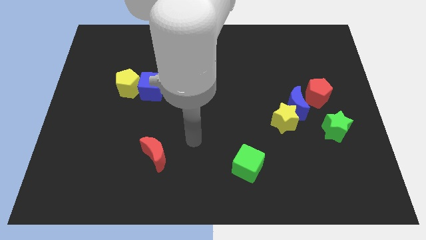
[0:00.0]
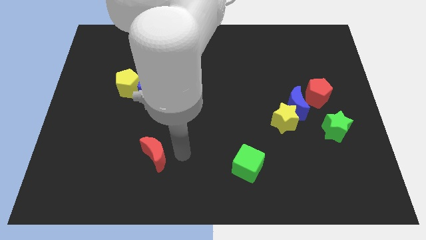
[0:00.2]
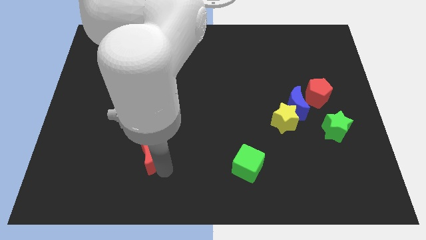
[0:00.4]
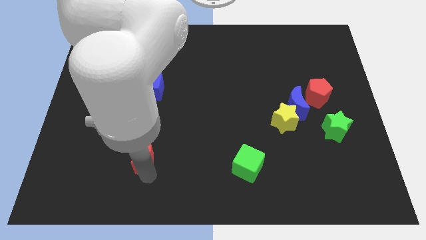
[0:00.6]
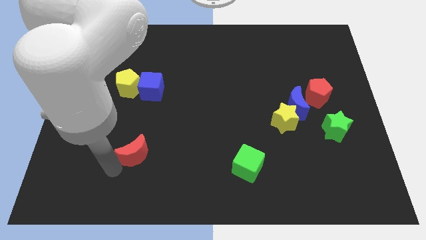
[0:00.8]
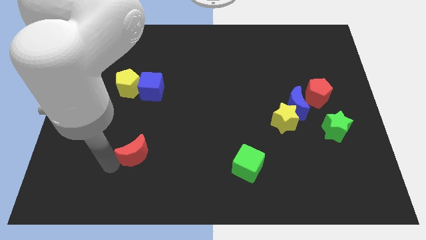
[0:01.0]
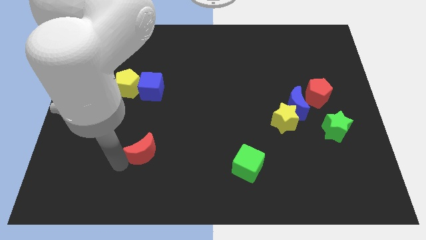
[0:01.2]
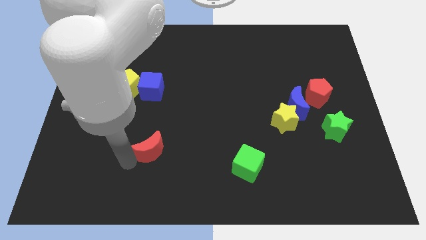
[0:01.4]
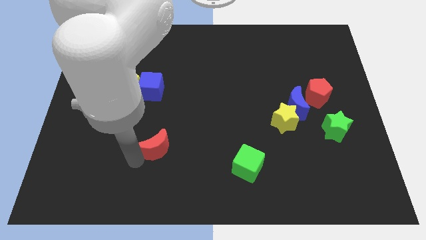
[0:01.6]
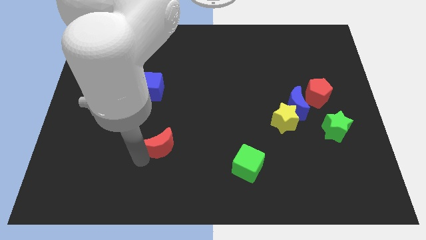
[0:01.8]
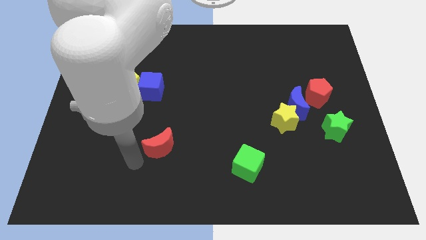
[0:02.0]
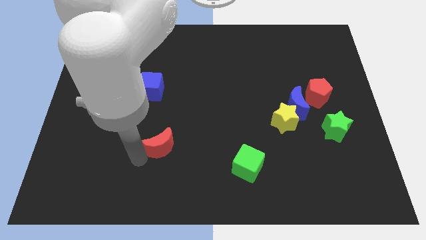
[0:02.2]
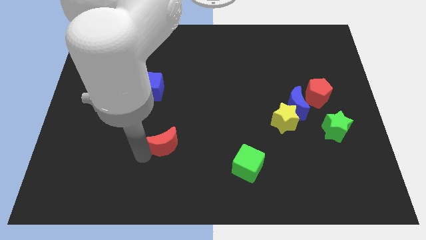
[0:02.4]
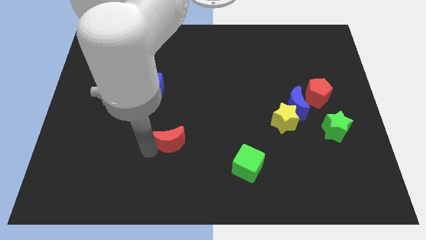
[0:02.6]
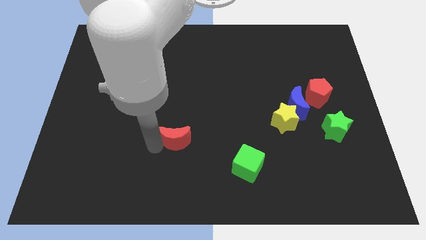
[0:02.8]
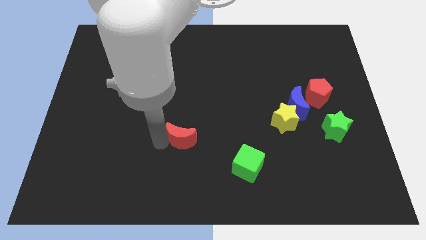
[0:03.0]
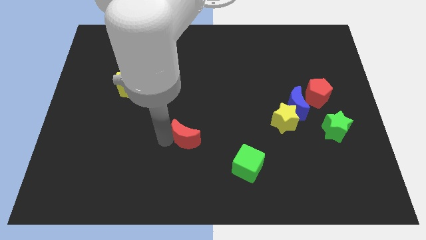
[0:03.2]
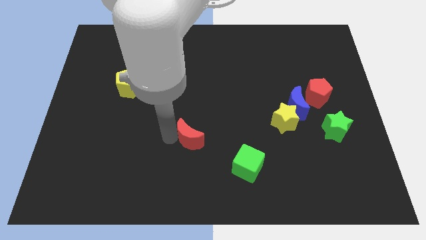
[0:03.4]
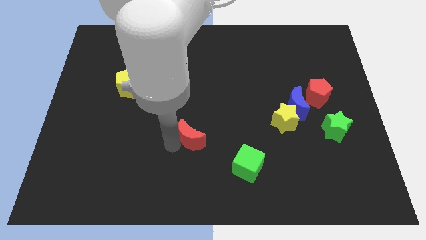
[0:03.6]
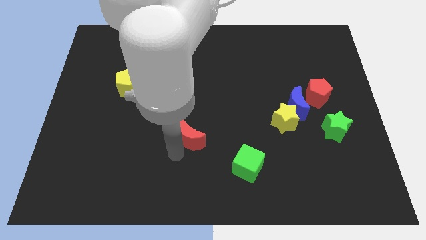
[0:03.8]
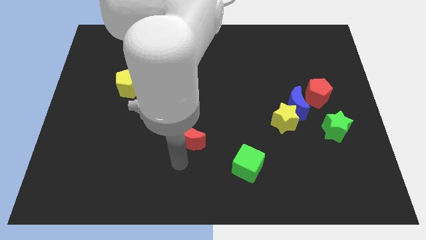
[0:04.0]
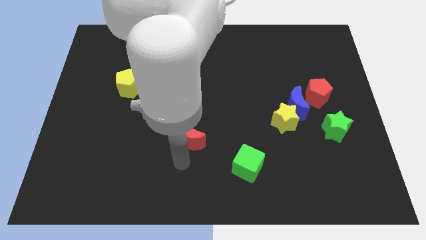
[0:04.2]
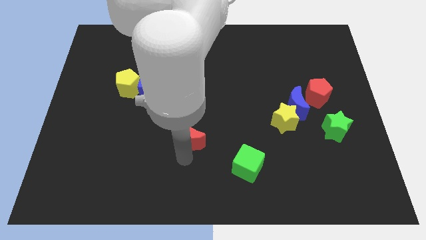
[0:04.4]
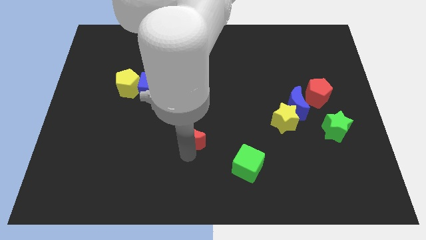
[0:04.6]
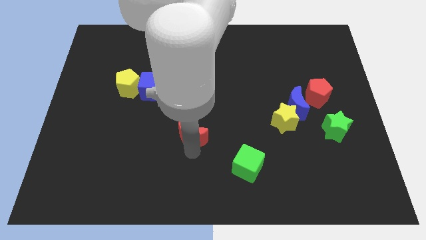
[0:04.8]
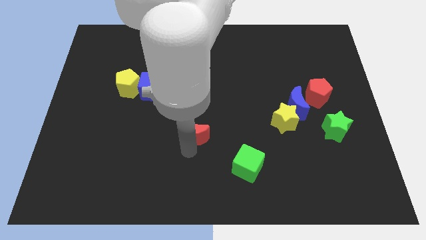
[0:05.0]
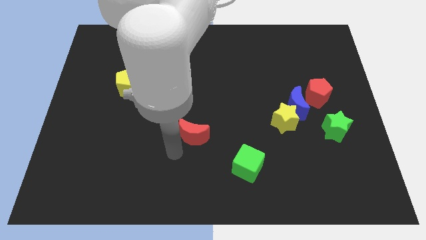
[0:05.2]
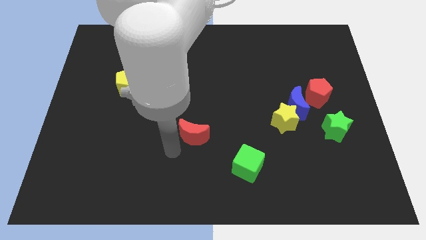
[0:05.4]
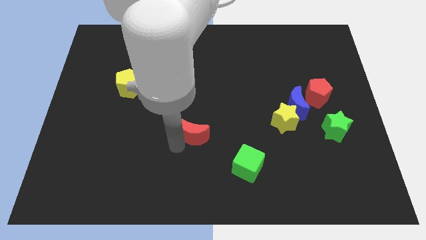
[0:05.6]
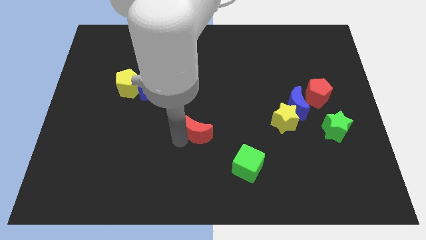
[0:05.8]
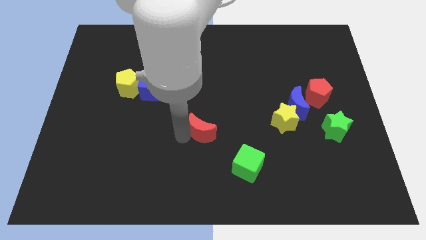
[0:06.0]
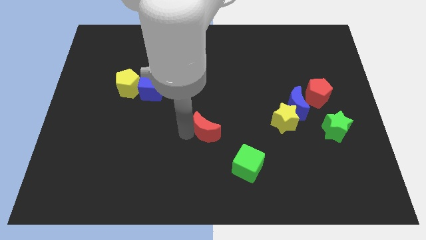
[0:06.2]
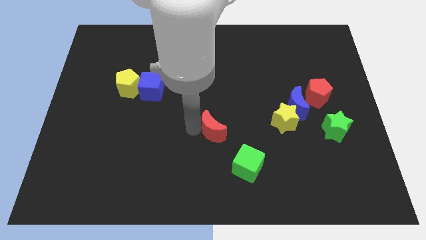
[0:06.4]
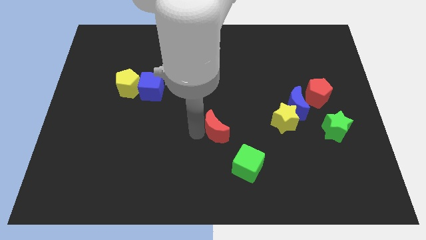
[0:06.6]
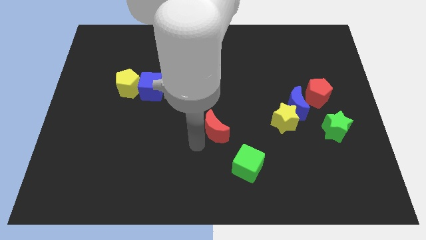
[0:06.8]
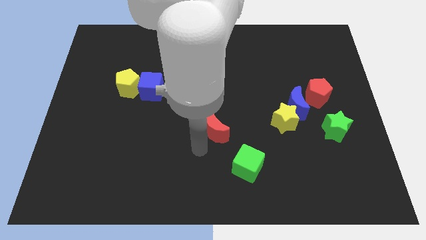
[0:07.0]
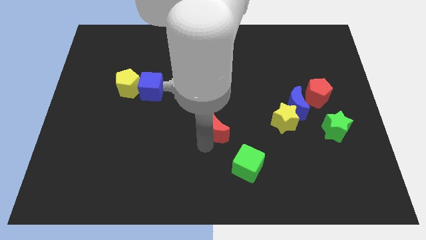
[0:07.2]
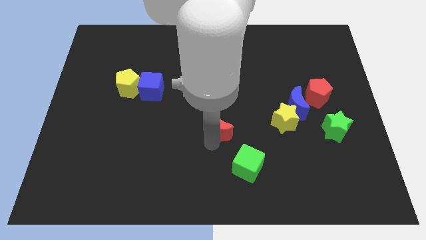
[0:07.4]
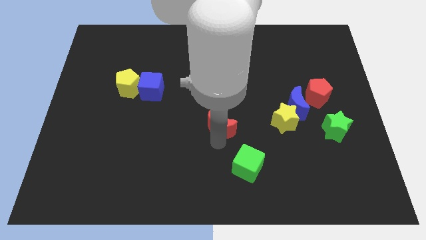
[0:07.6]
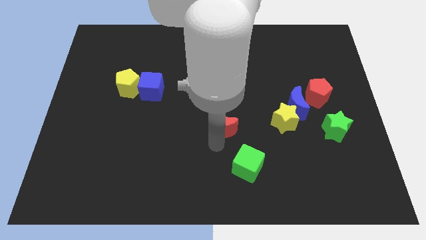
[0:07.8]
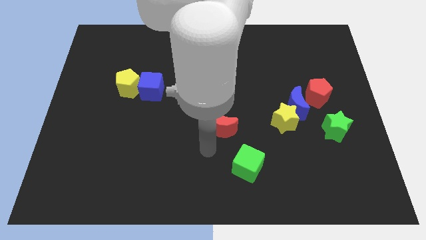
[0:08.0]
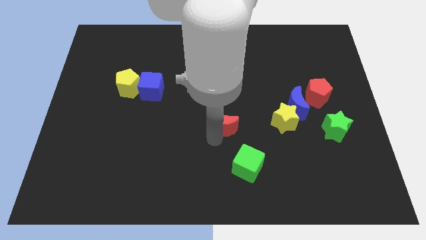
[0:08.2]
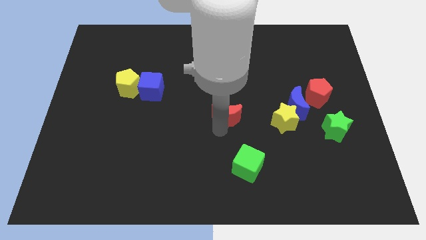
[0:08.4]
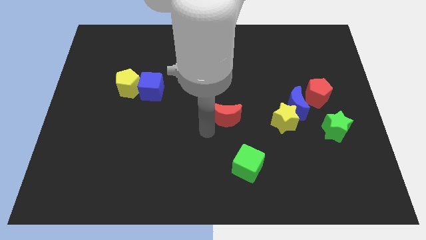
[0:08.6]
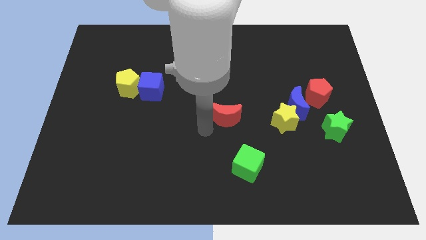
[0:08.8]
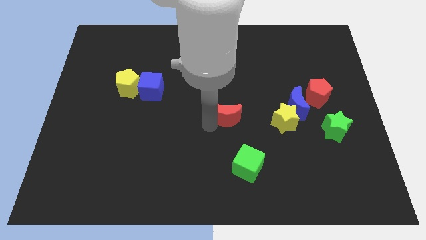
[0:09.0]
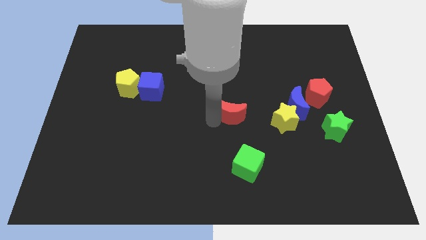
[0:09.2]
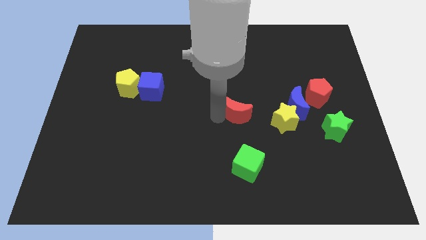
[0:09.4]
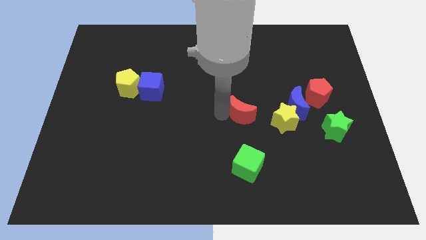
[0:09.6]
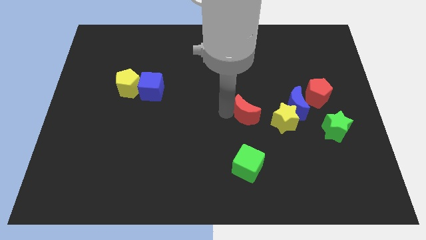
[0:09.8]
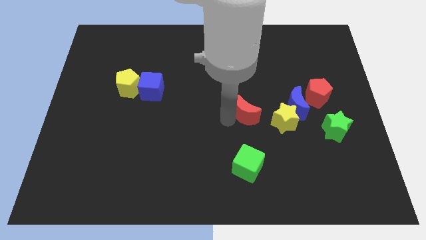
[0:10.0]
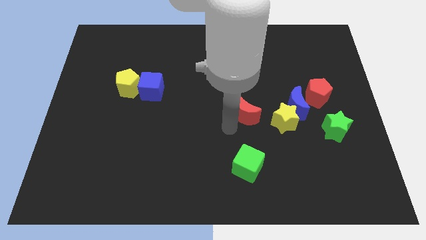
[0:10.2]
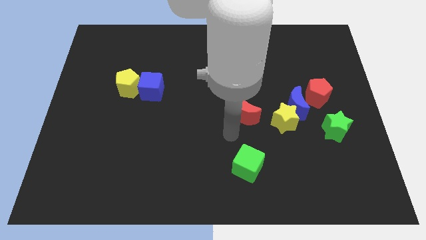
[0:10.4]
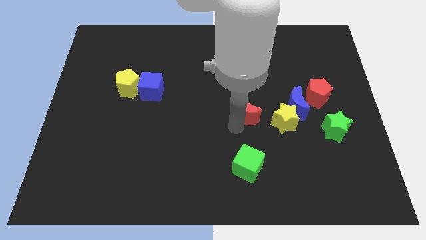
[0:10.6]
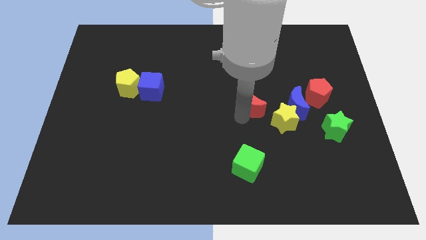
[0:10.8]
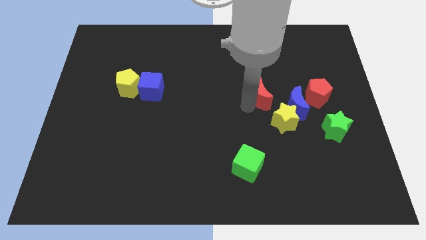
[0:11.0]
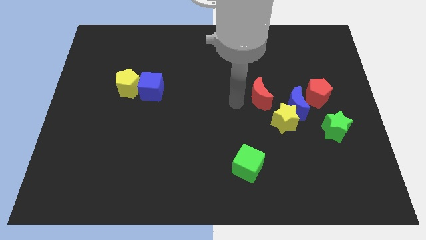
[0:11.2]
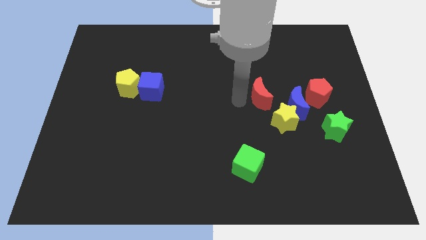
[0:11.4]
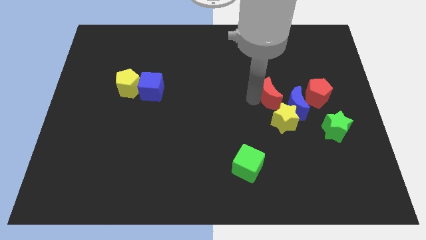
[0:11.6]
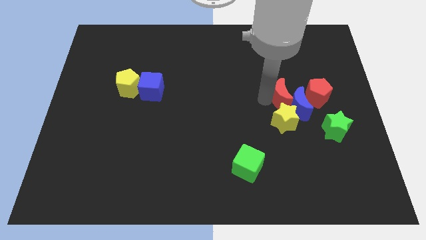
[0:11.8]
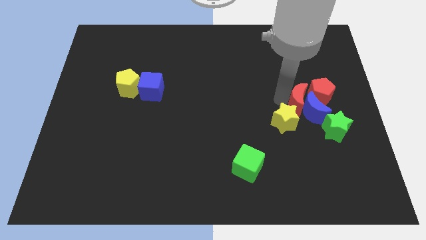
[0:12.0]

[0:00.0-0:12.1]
put the red moon close to the red pentagon

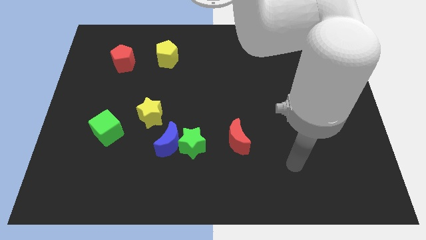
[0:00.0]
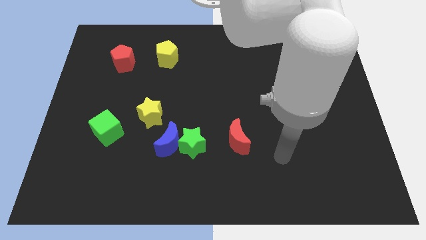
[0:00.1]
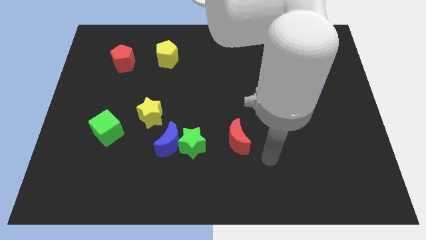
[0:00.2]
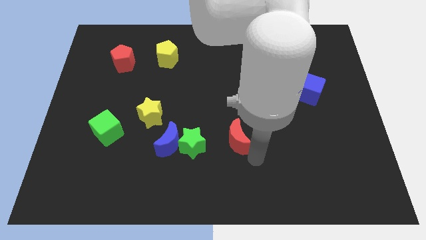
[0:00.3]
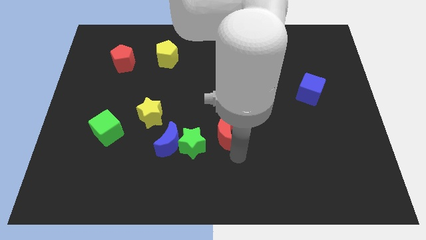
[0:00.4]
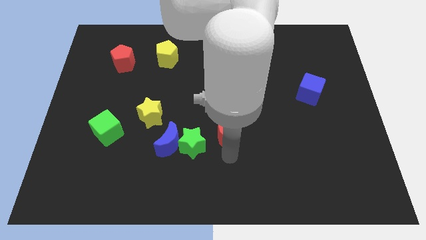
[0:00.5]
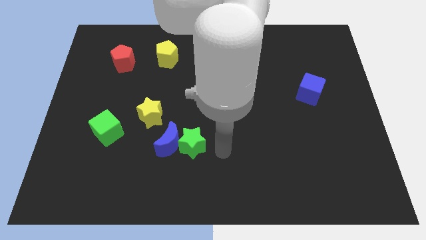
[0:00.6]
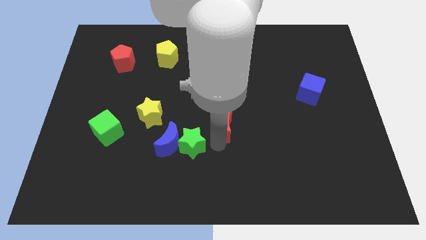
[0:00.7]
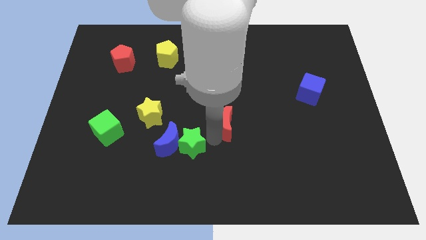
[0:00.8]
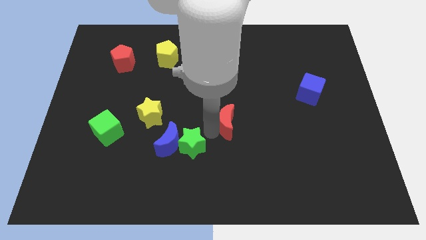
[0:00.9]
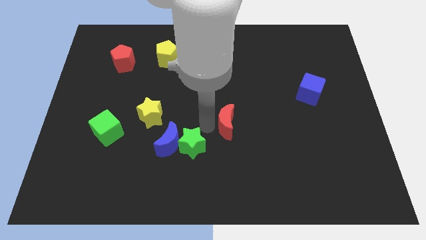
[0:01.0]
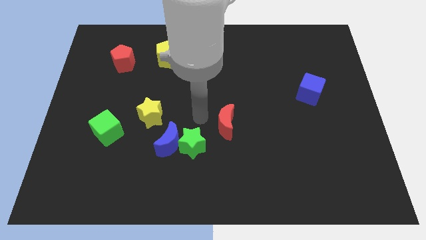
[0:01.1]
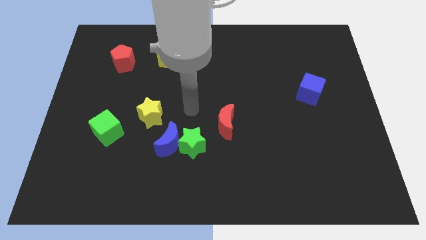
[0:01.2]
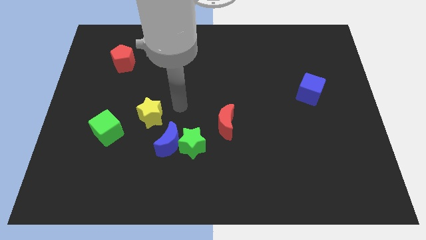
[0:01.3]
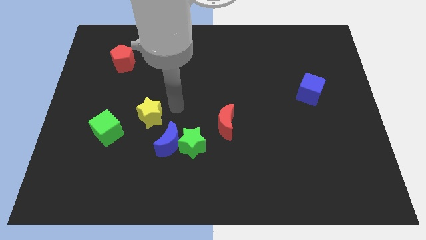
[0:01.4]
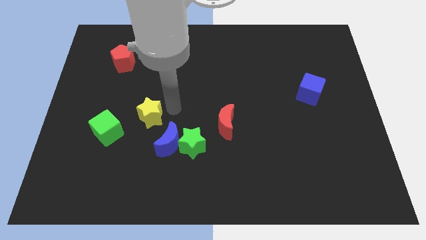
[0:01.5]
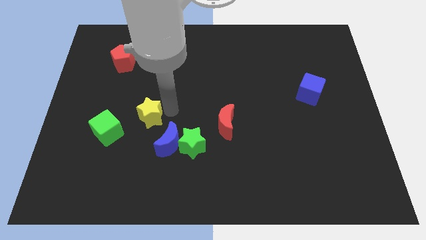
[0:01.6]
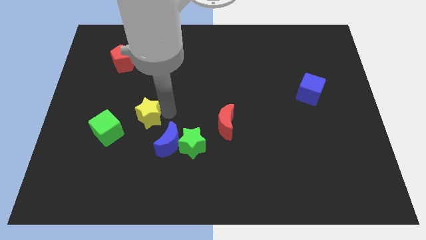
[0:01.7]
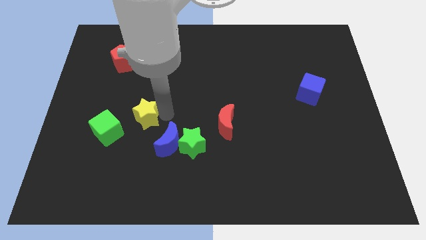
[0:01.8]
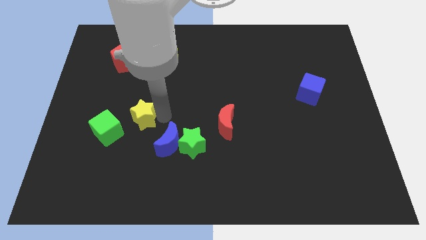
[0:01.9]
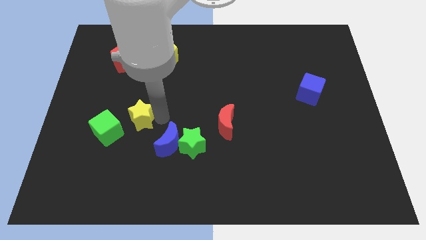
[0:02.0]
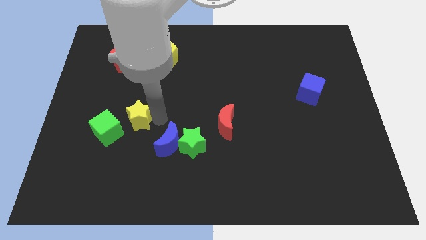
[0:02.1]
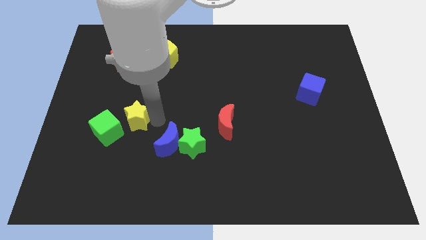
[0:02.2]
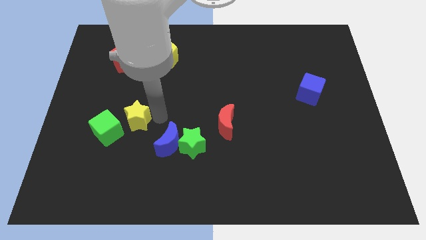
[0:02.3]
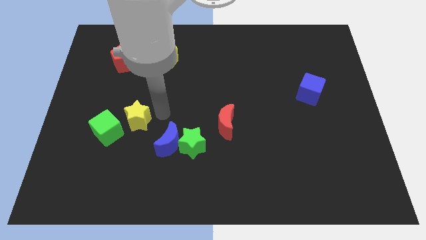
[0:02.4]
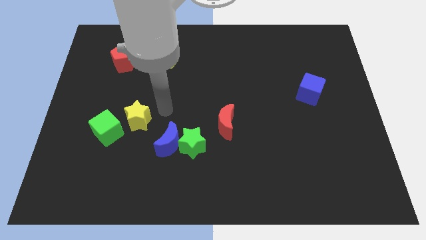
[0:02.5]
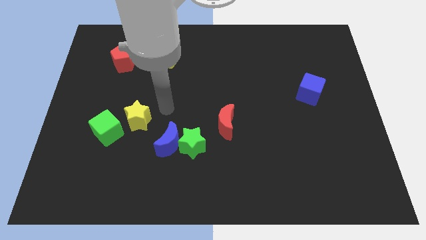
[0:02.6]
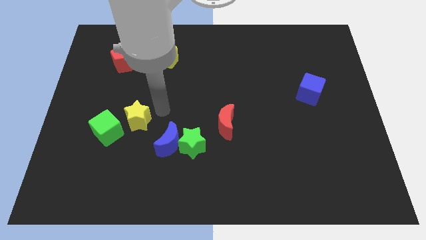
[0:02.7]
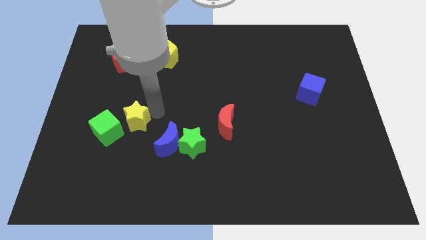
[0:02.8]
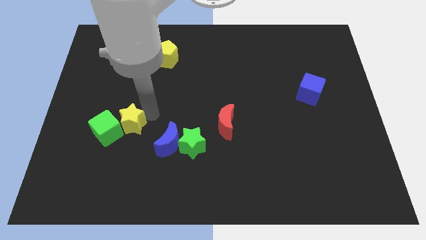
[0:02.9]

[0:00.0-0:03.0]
push the yellow star to the green cube
